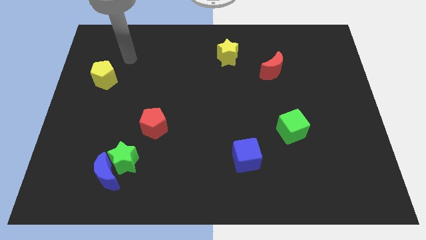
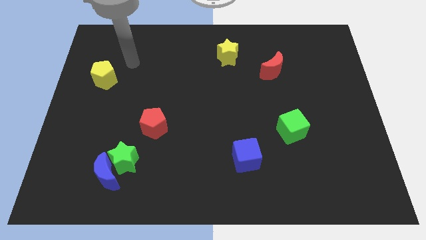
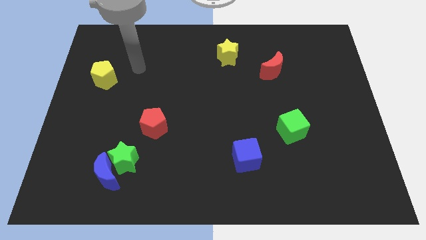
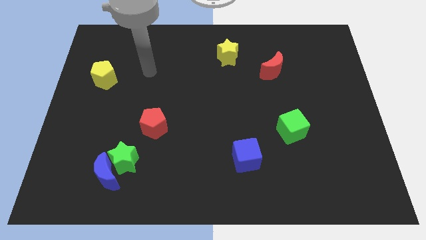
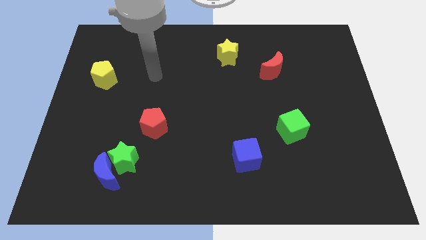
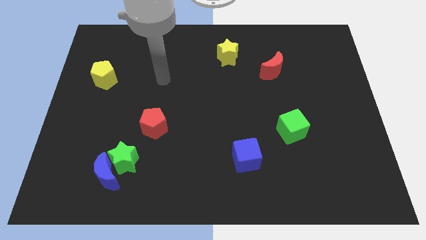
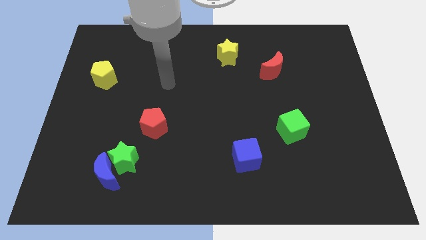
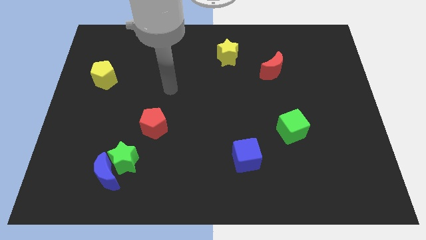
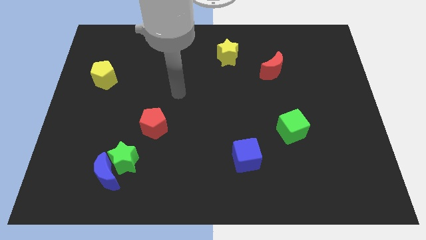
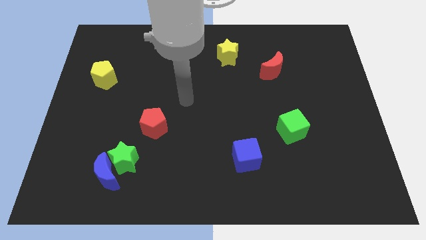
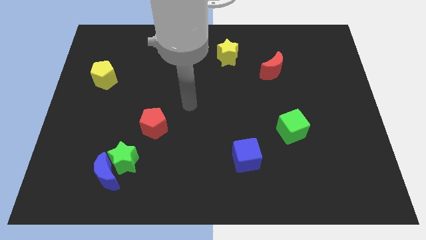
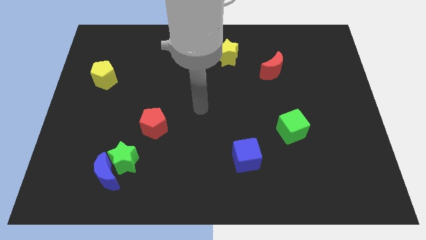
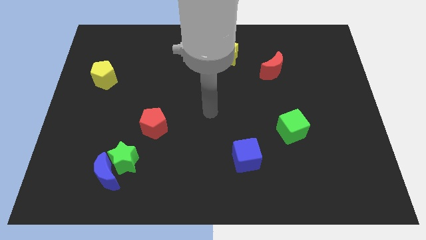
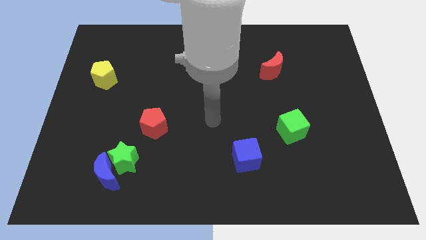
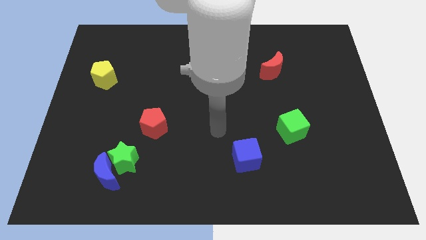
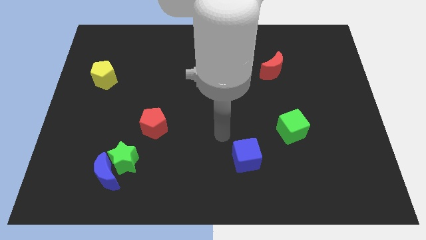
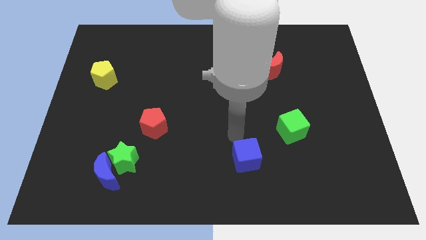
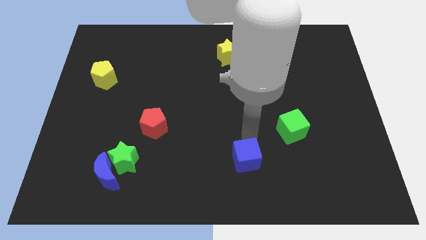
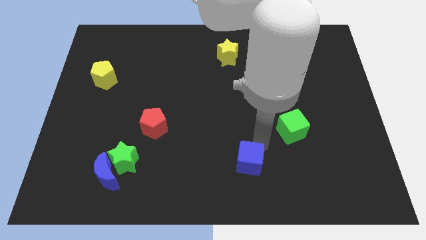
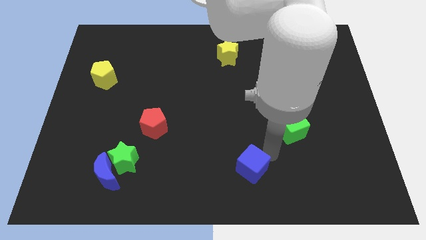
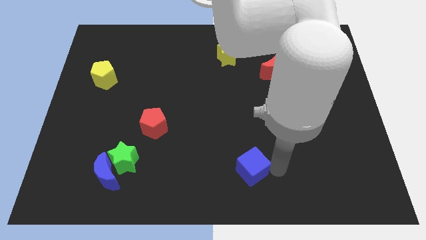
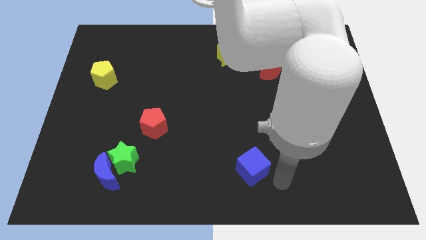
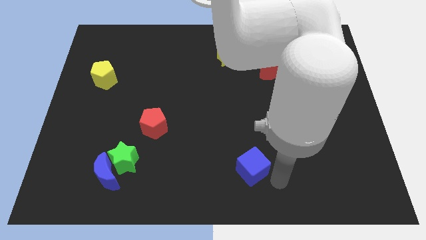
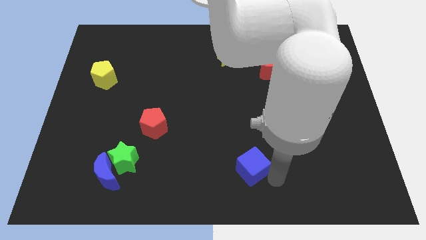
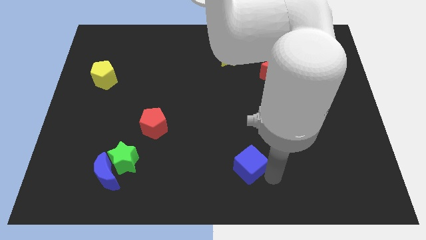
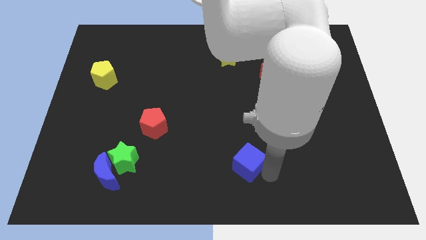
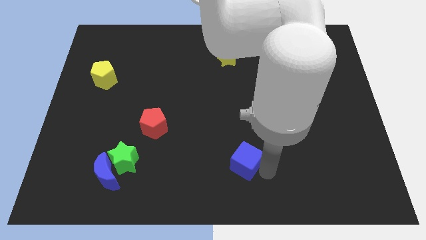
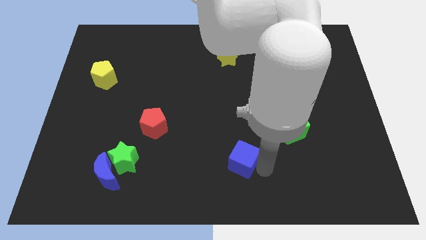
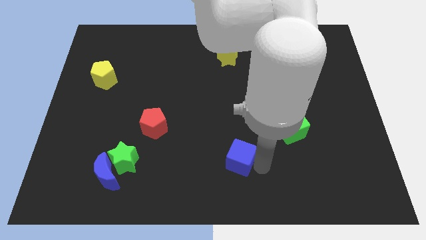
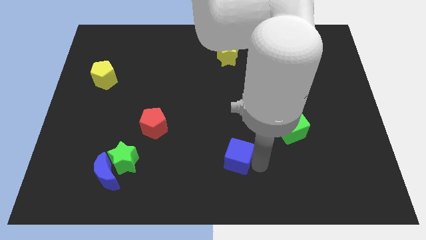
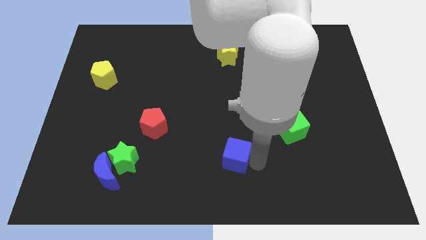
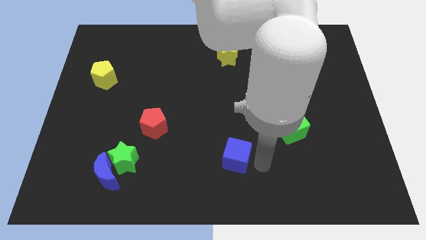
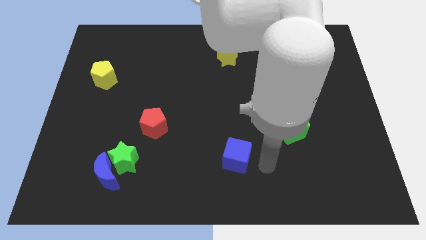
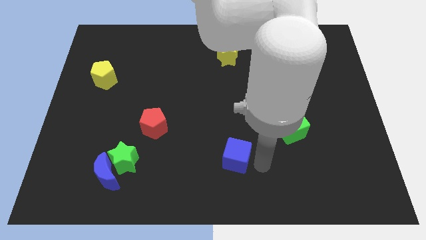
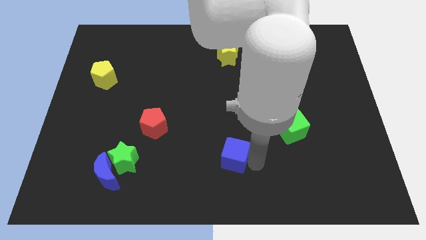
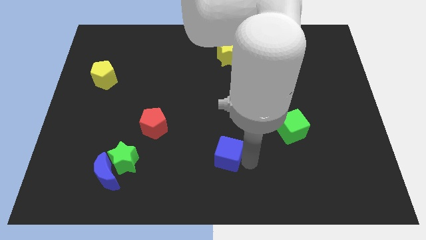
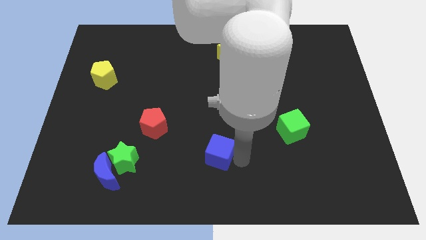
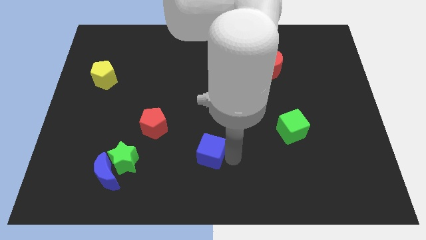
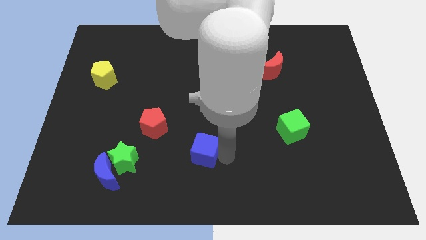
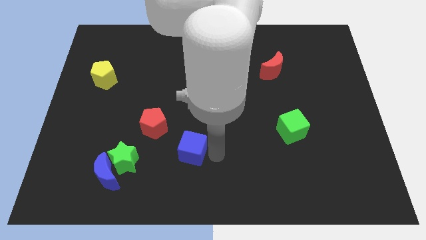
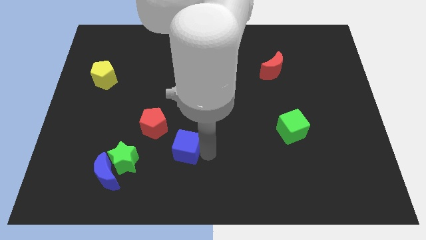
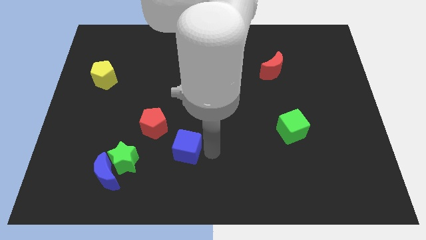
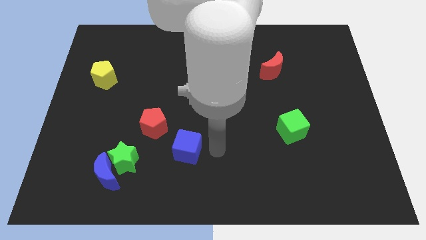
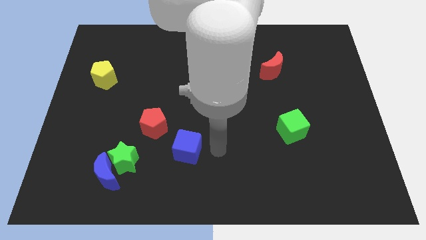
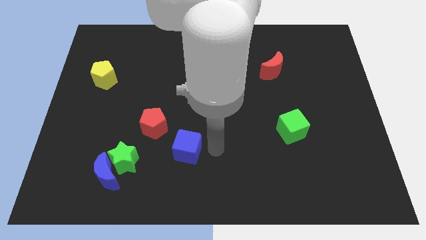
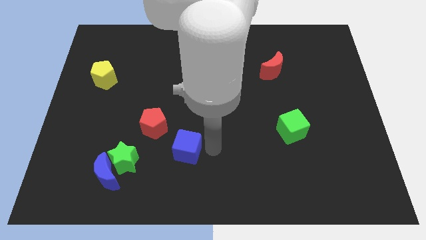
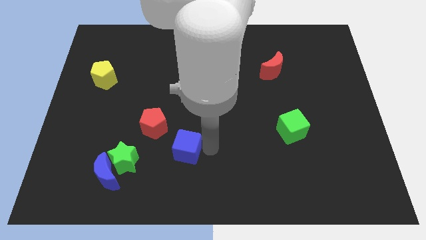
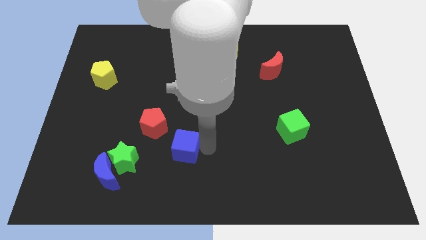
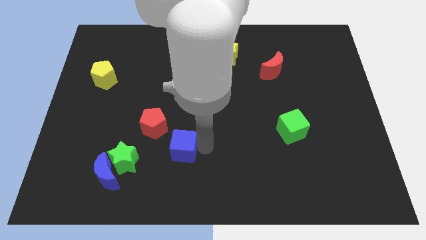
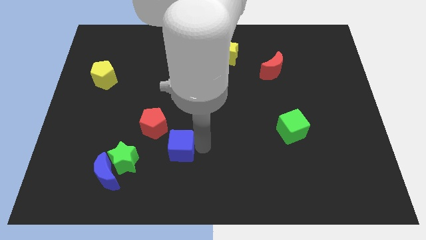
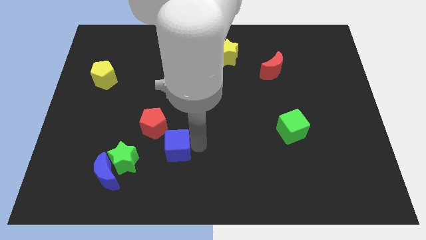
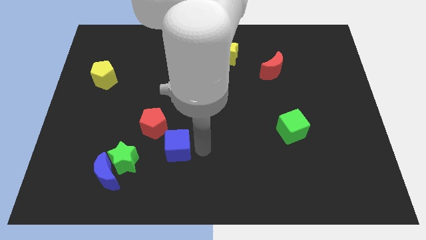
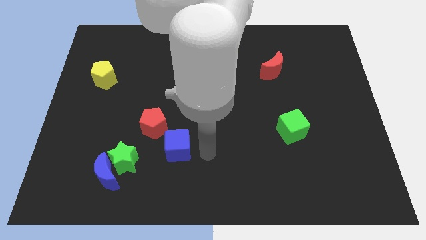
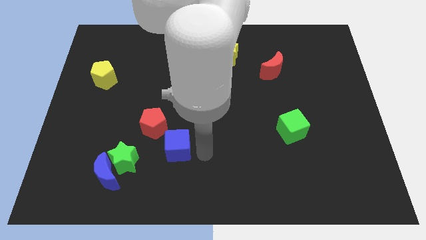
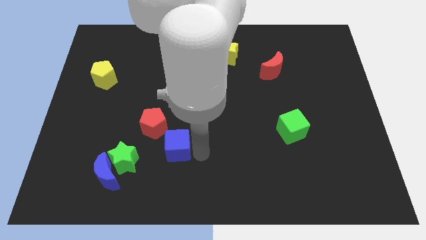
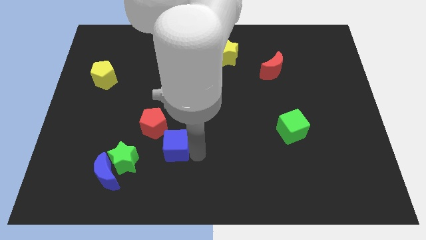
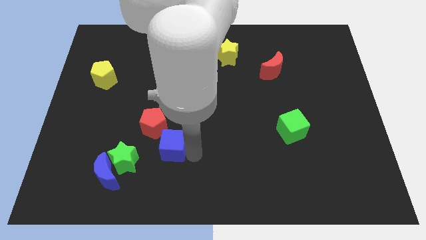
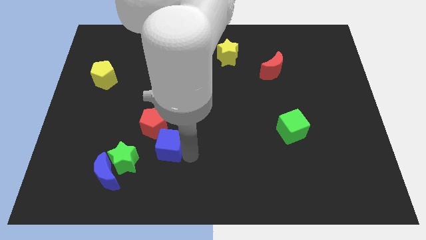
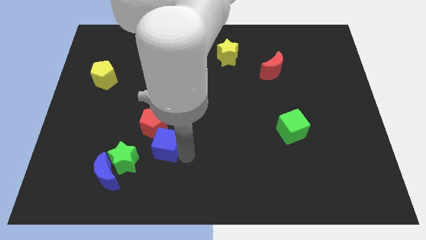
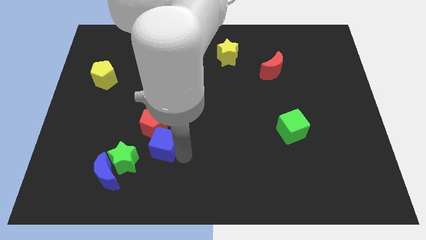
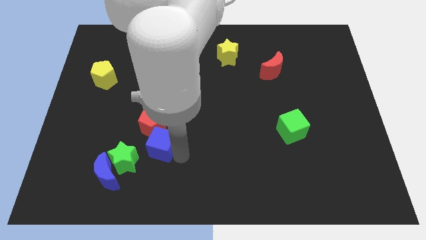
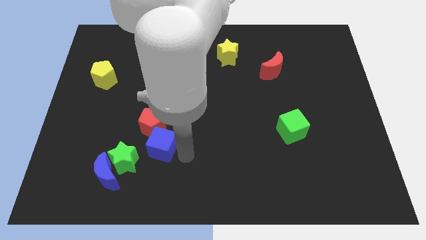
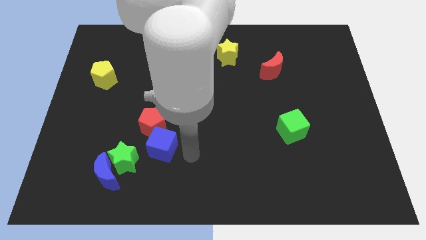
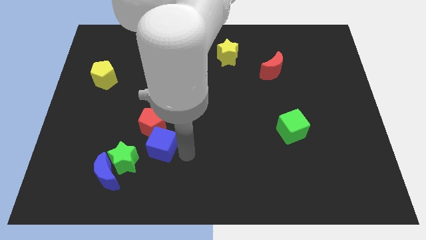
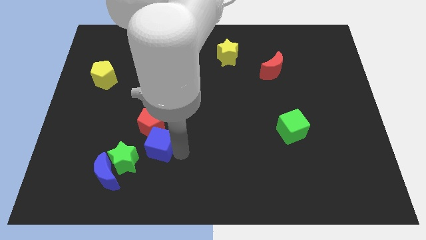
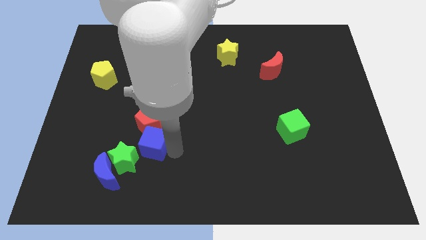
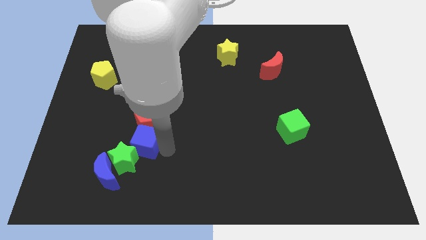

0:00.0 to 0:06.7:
move the blue cube to the left

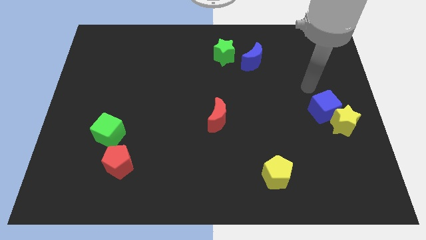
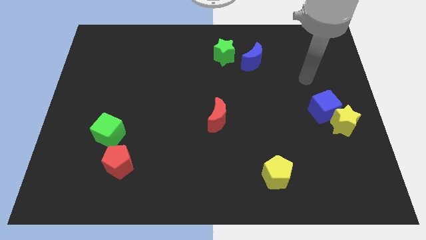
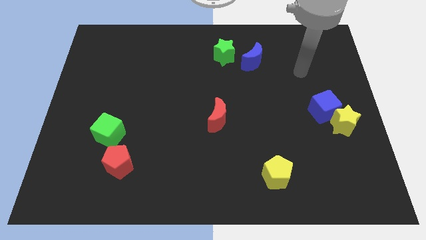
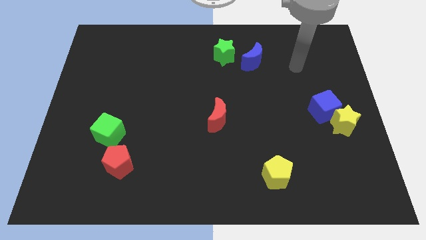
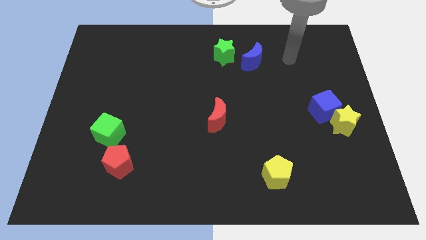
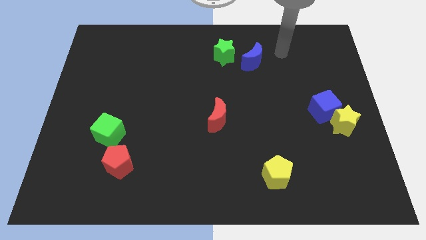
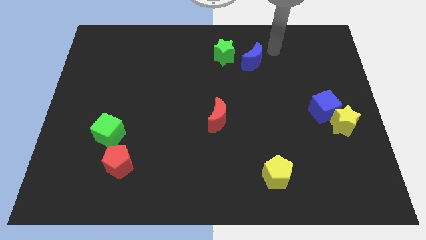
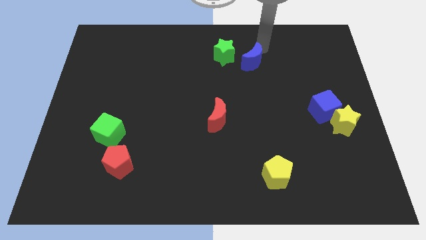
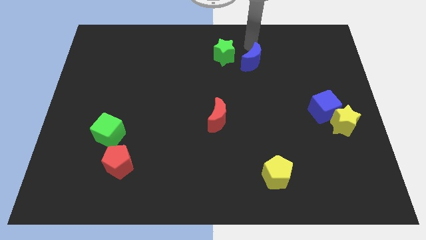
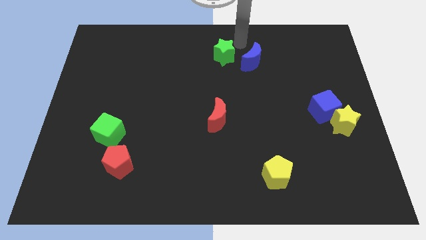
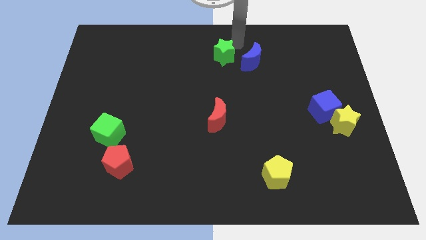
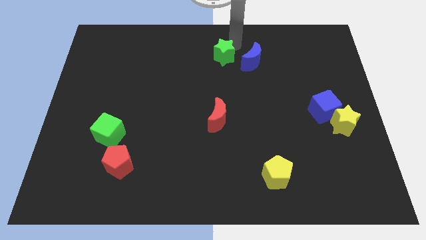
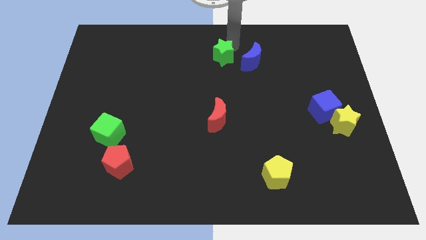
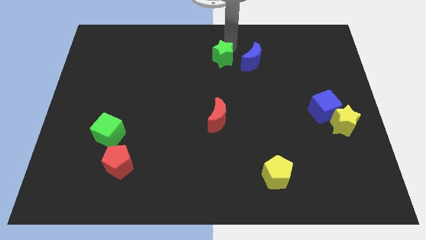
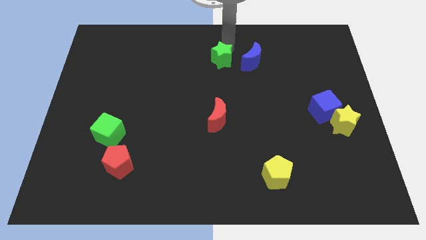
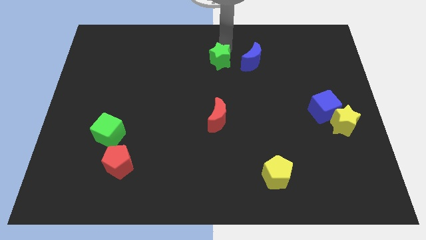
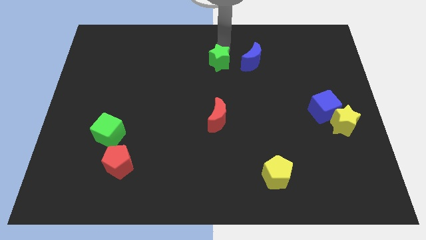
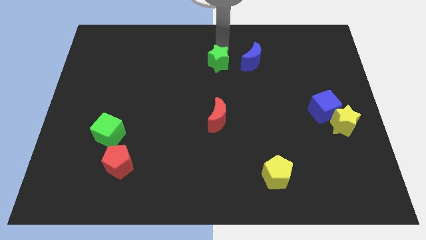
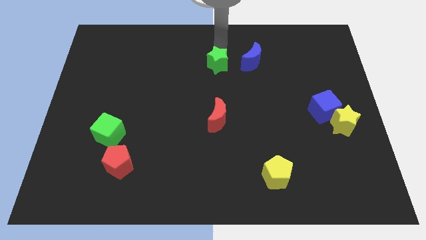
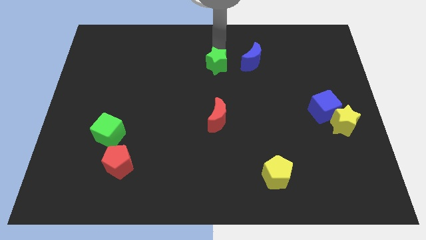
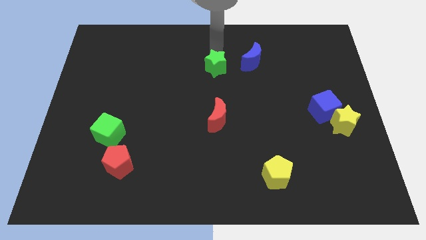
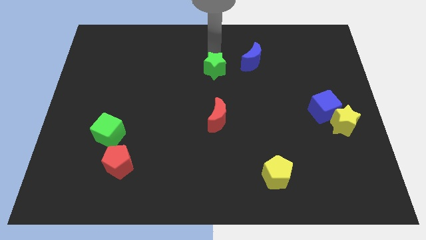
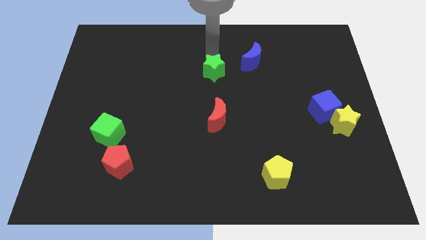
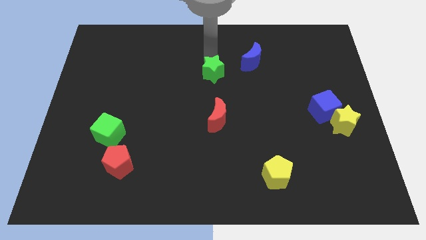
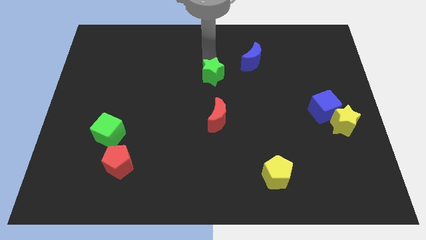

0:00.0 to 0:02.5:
slide the green star down and then left a little bit
